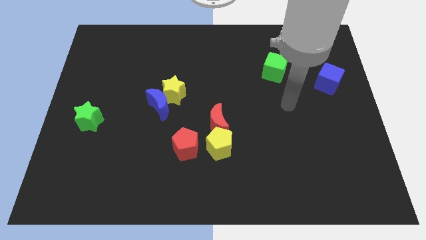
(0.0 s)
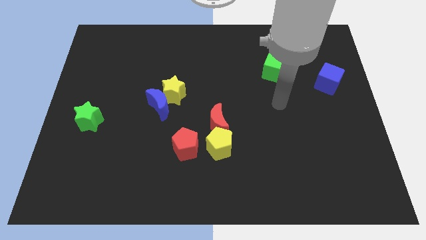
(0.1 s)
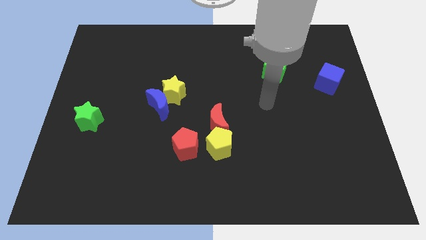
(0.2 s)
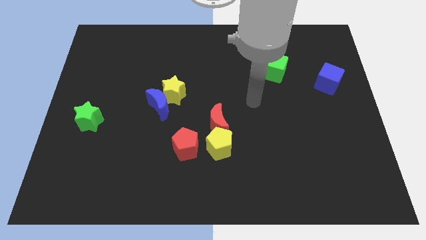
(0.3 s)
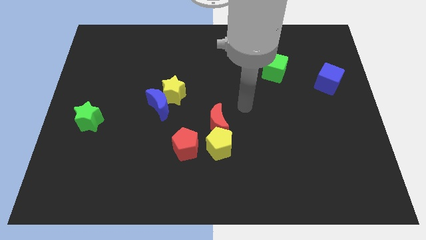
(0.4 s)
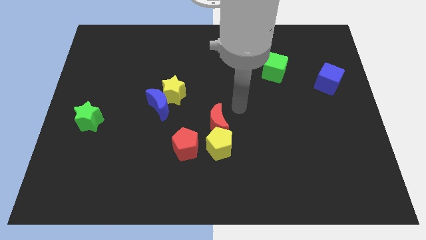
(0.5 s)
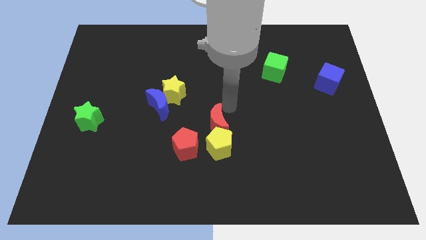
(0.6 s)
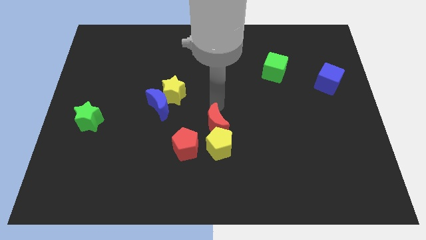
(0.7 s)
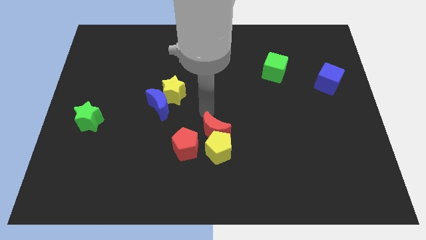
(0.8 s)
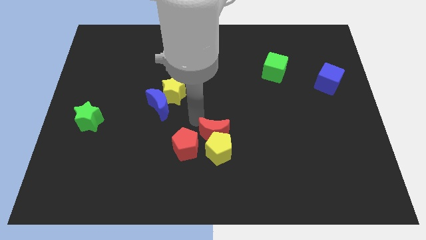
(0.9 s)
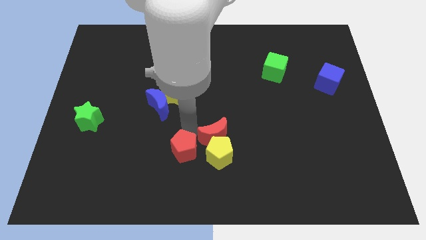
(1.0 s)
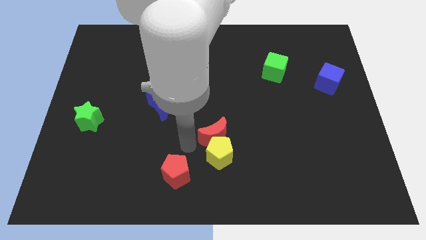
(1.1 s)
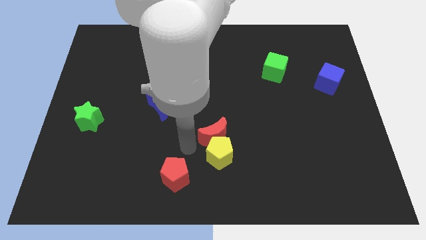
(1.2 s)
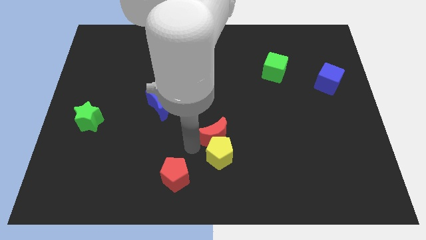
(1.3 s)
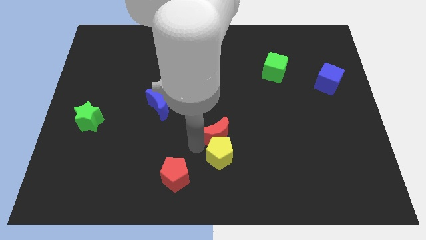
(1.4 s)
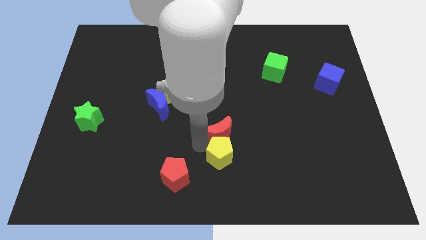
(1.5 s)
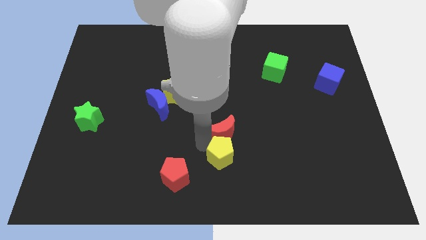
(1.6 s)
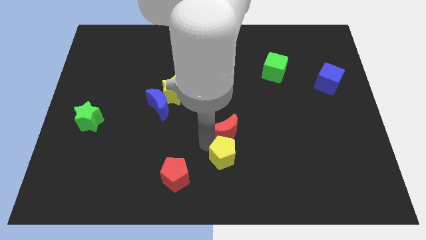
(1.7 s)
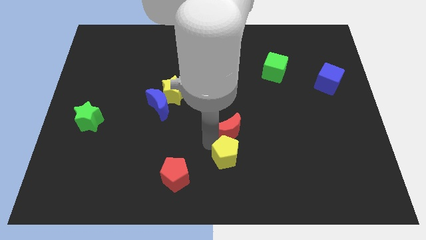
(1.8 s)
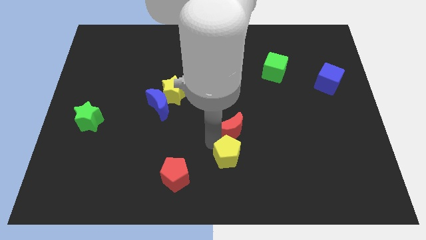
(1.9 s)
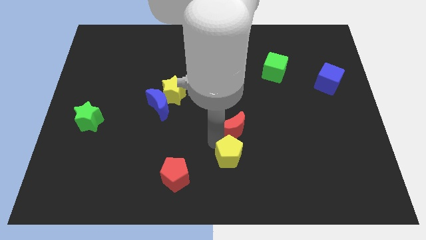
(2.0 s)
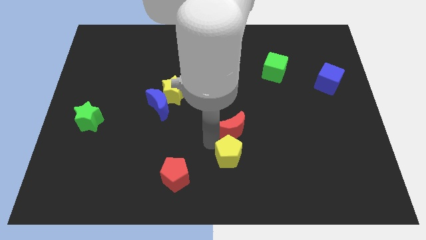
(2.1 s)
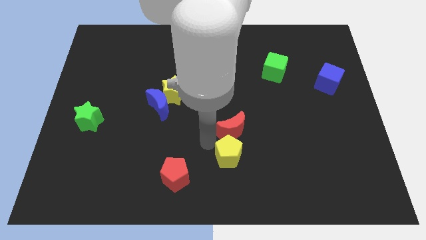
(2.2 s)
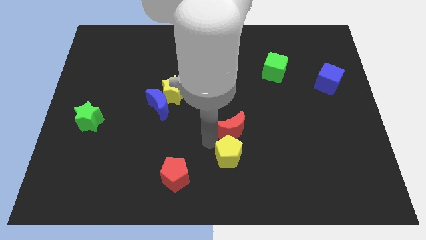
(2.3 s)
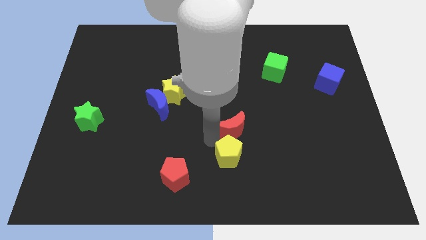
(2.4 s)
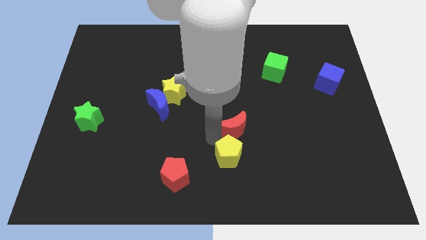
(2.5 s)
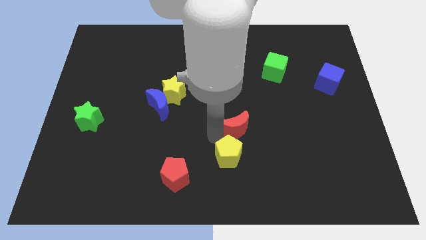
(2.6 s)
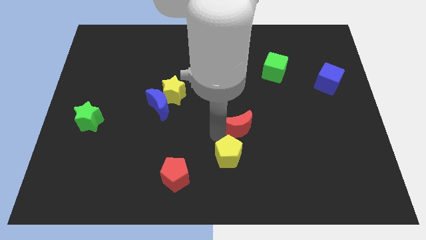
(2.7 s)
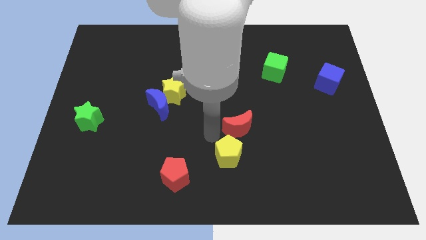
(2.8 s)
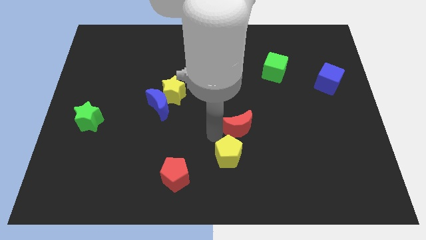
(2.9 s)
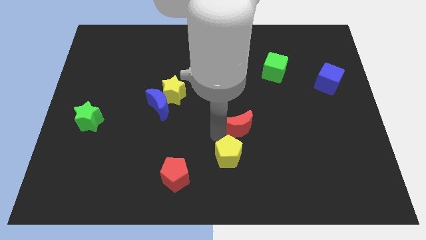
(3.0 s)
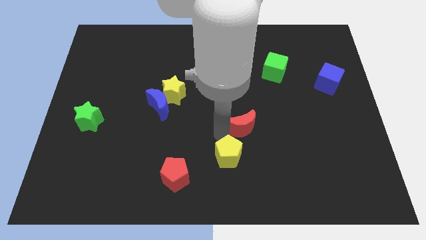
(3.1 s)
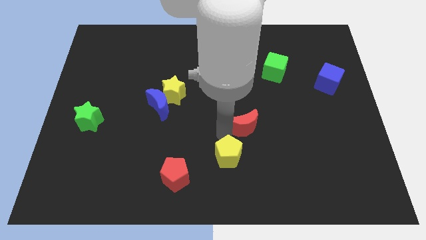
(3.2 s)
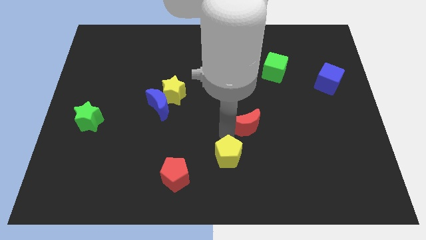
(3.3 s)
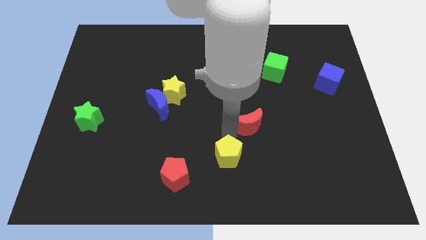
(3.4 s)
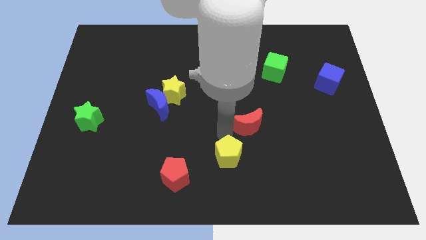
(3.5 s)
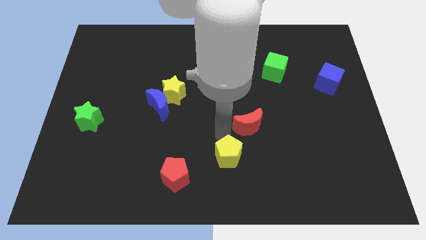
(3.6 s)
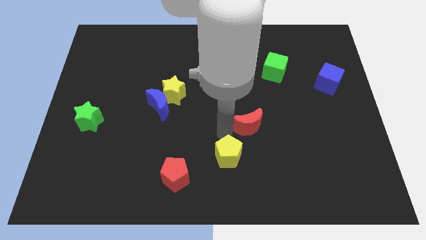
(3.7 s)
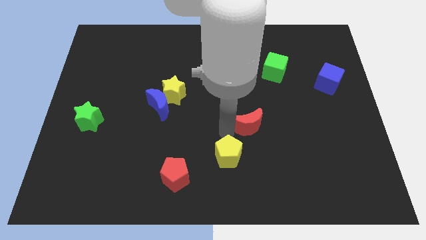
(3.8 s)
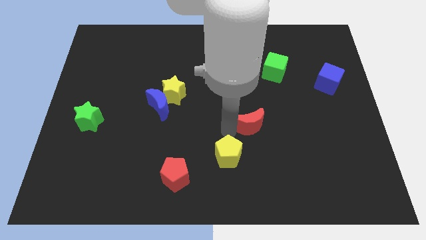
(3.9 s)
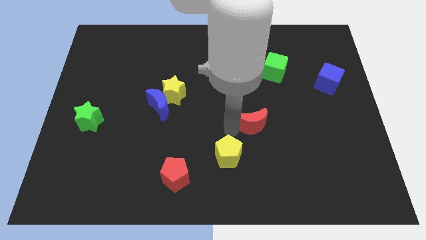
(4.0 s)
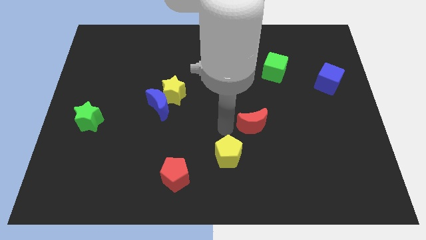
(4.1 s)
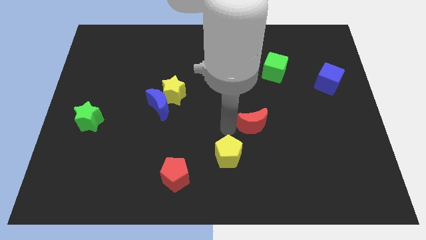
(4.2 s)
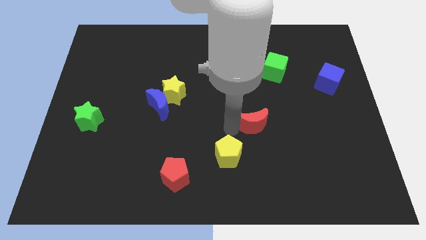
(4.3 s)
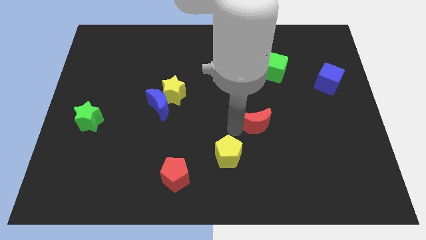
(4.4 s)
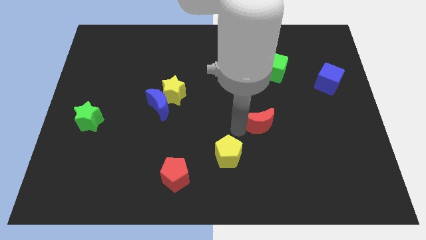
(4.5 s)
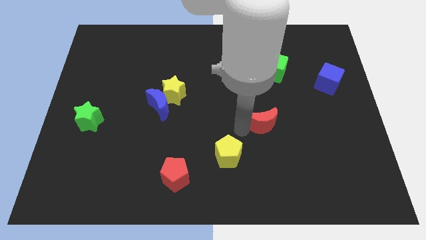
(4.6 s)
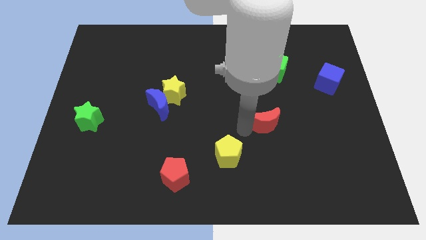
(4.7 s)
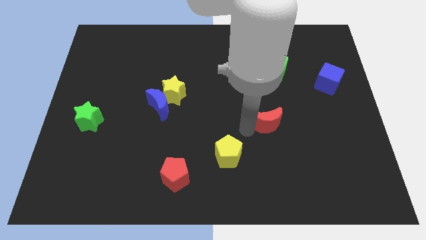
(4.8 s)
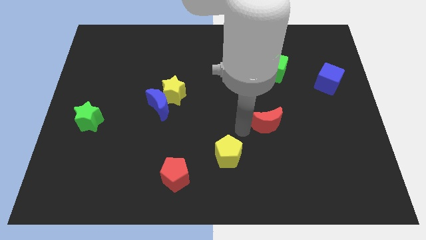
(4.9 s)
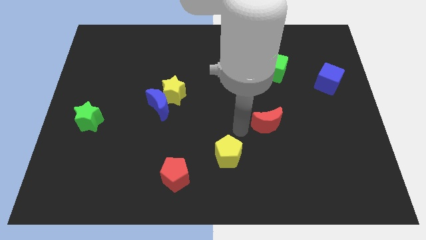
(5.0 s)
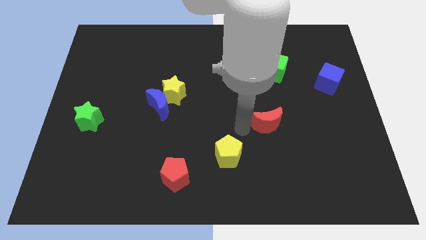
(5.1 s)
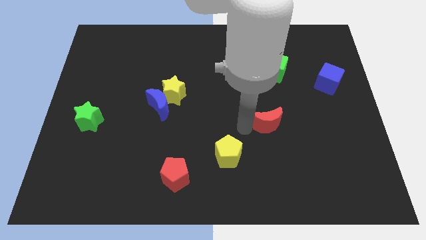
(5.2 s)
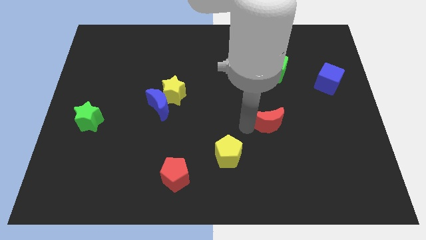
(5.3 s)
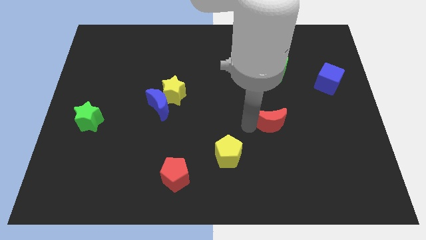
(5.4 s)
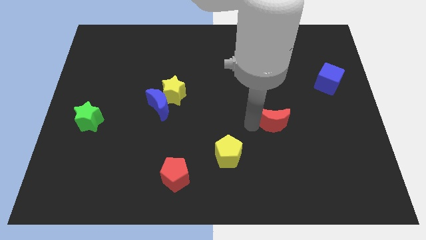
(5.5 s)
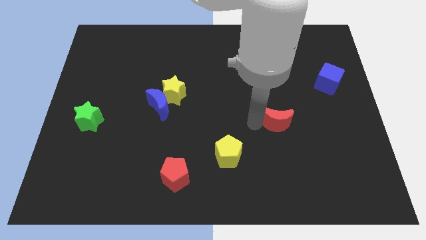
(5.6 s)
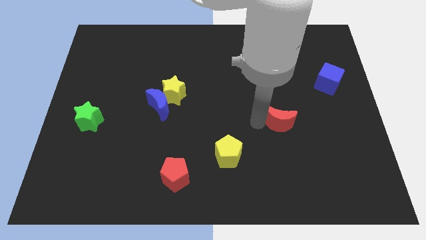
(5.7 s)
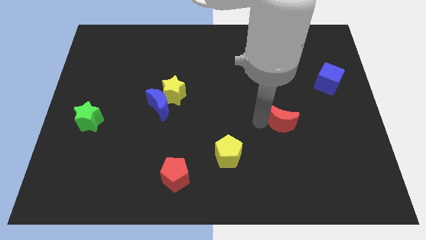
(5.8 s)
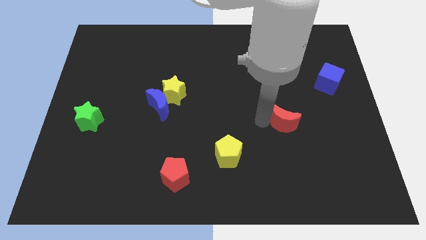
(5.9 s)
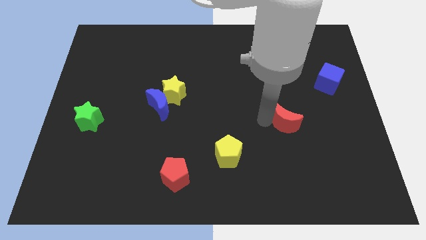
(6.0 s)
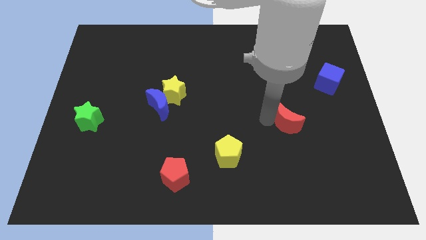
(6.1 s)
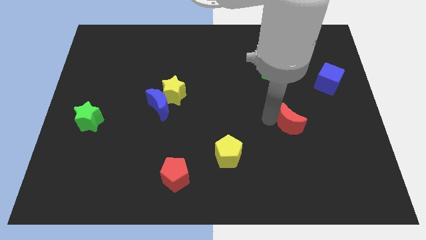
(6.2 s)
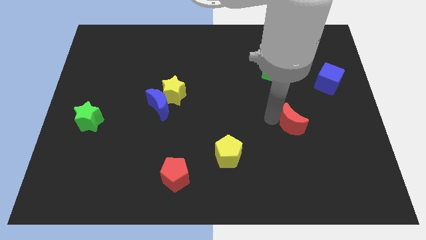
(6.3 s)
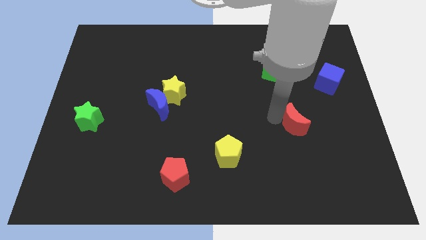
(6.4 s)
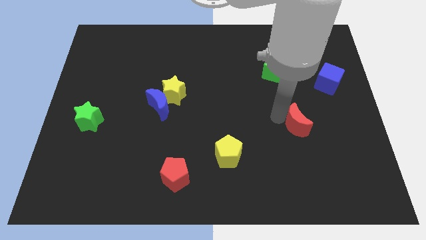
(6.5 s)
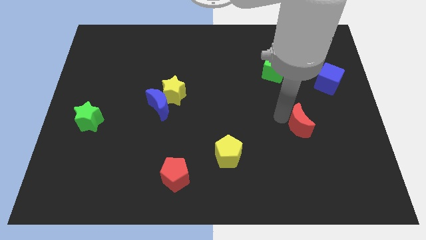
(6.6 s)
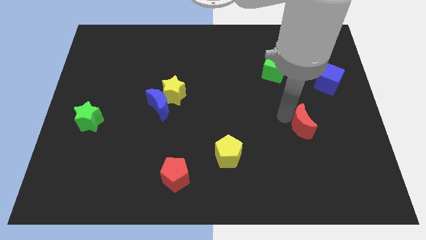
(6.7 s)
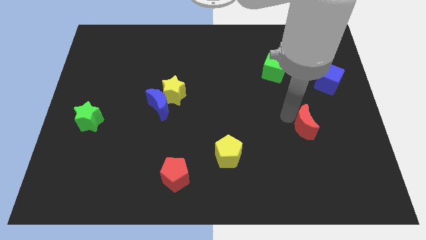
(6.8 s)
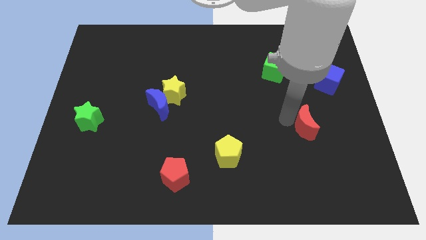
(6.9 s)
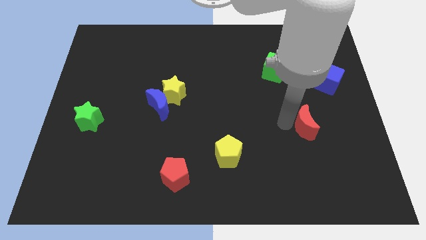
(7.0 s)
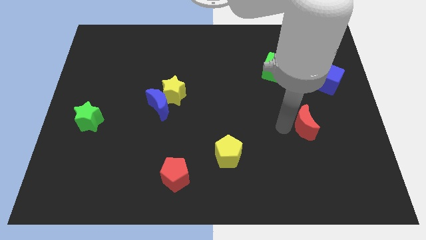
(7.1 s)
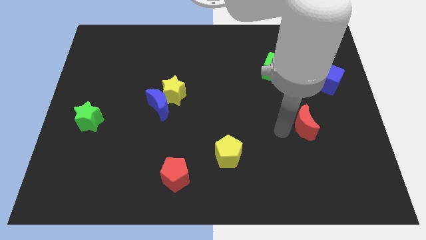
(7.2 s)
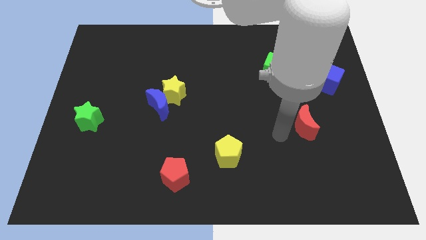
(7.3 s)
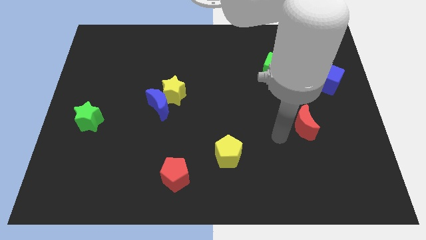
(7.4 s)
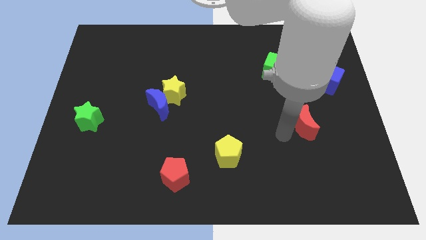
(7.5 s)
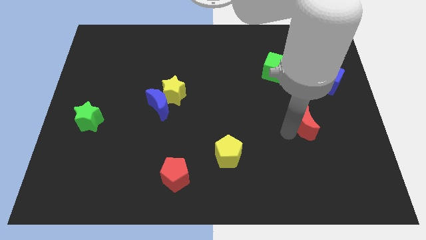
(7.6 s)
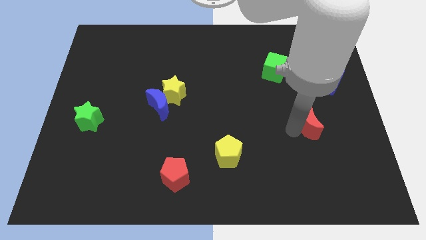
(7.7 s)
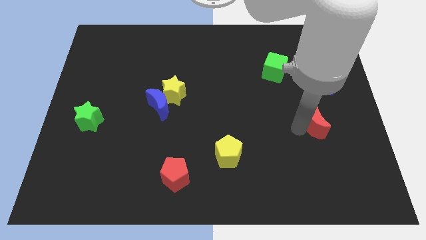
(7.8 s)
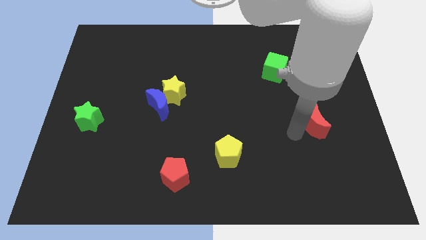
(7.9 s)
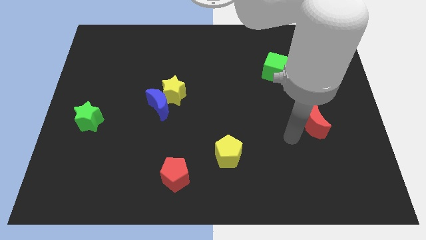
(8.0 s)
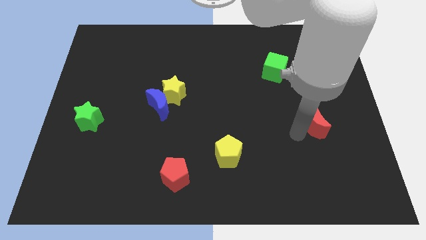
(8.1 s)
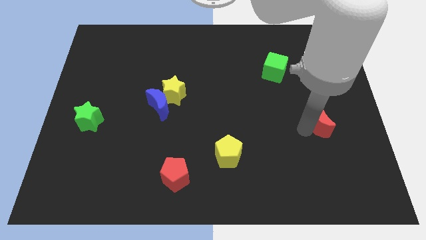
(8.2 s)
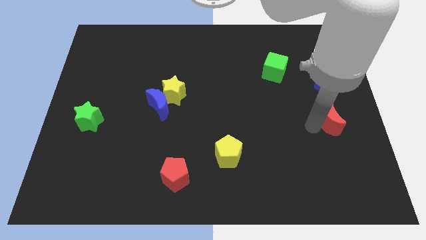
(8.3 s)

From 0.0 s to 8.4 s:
slide the red moon to the right side
